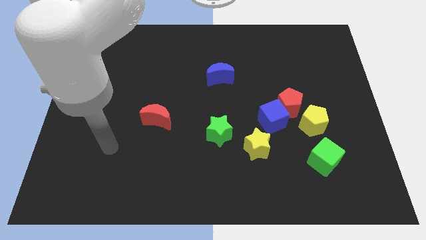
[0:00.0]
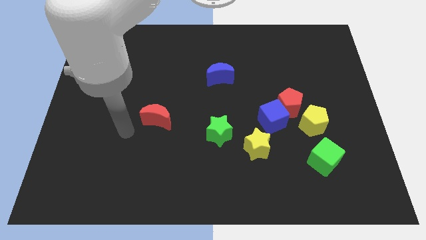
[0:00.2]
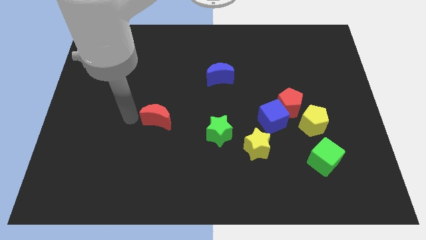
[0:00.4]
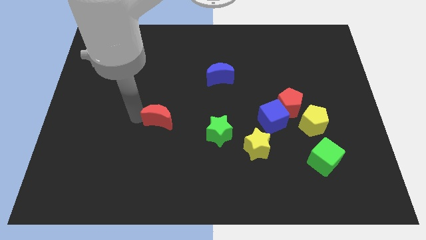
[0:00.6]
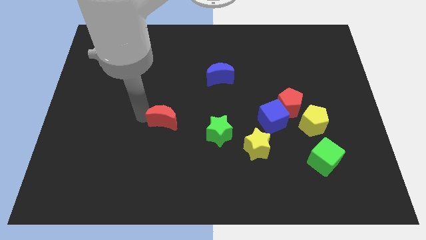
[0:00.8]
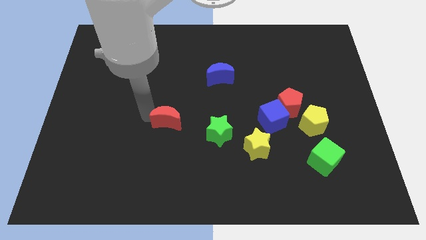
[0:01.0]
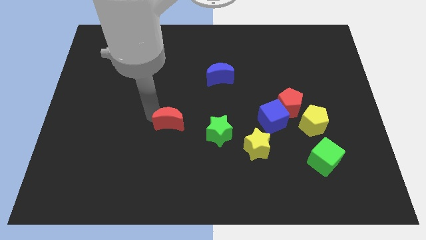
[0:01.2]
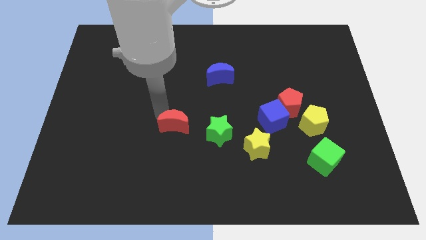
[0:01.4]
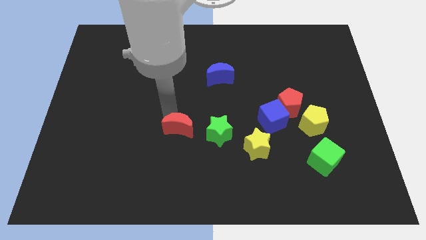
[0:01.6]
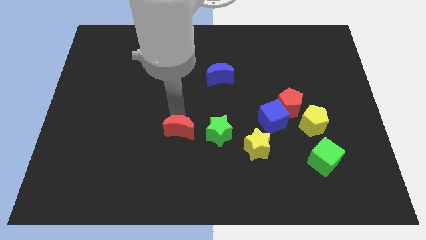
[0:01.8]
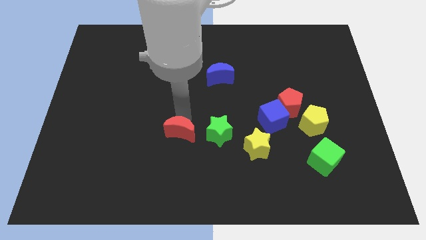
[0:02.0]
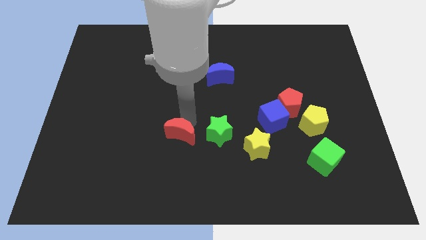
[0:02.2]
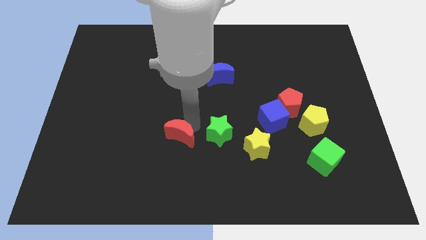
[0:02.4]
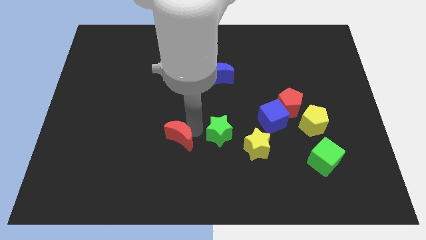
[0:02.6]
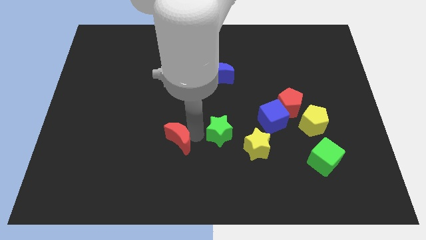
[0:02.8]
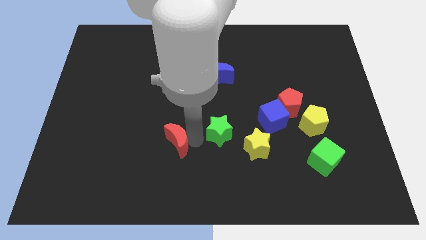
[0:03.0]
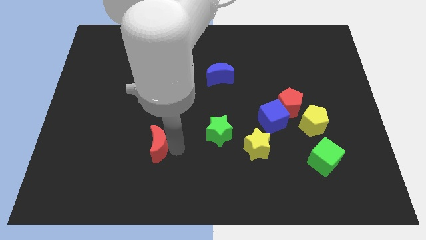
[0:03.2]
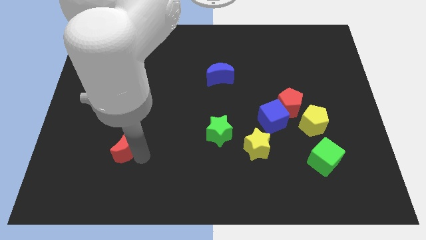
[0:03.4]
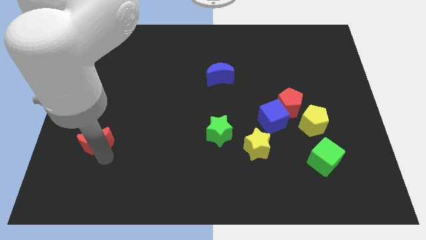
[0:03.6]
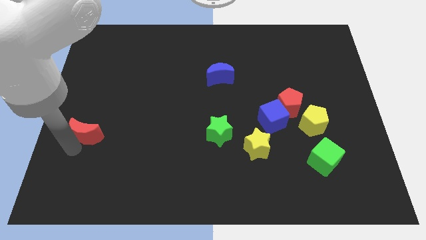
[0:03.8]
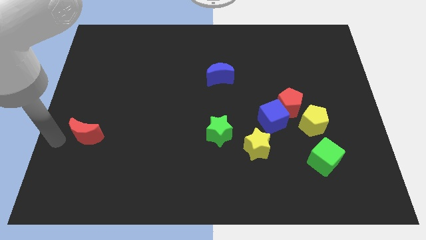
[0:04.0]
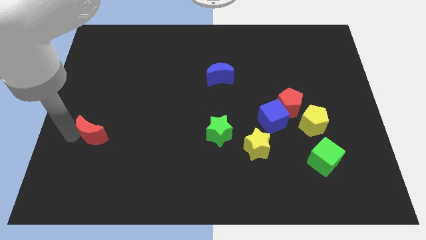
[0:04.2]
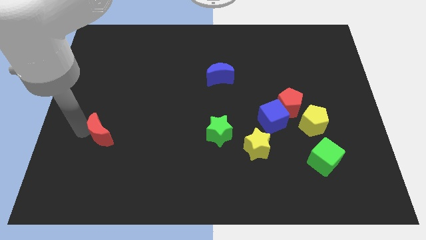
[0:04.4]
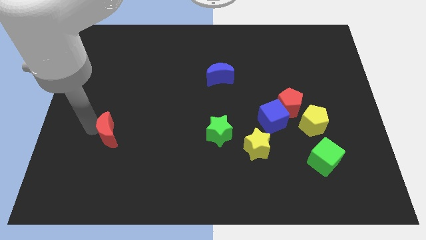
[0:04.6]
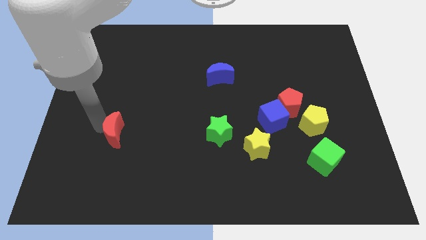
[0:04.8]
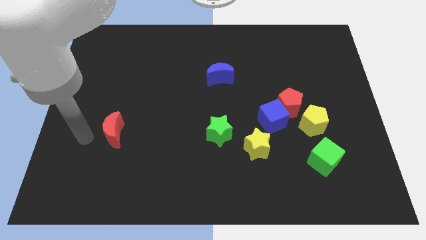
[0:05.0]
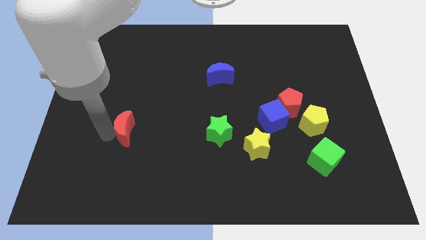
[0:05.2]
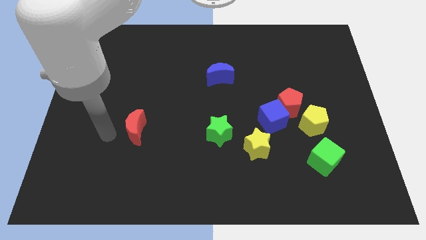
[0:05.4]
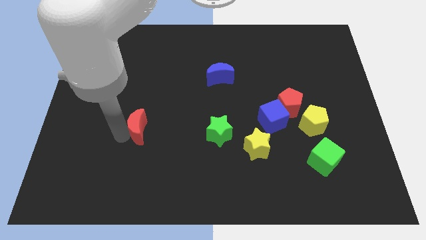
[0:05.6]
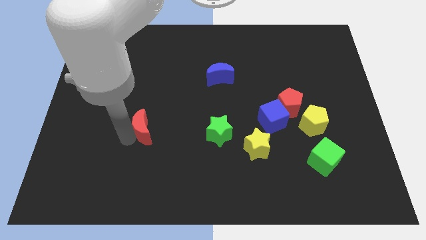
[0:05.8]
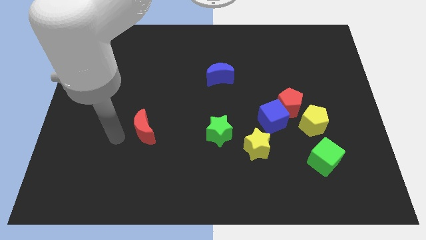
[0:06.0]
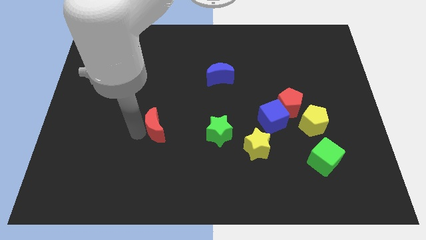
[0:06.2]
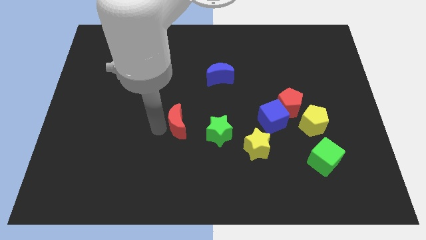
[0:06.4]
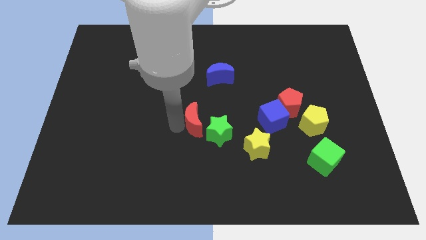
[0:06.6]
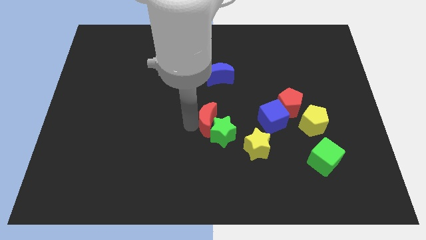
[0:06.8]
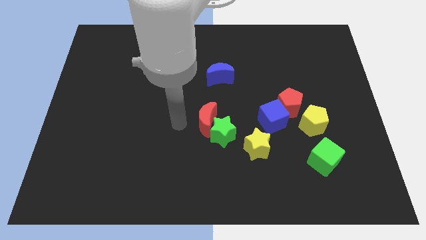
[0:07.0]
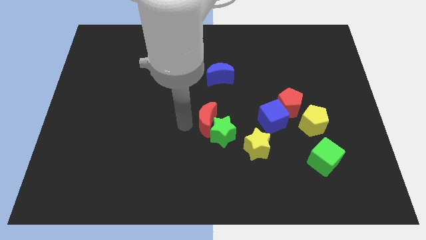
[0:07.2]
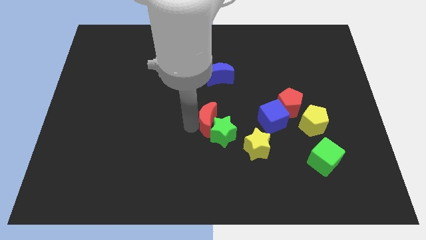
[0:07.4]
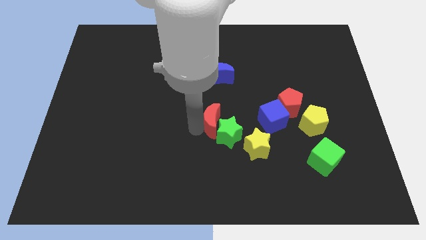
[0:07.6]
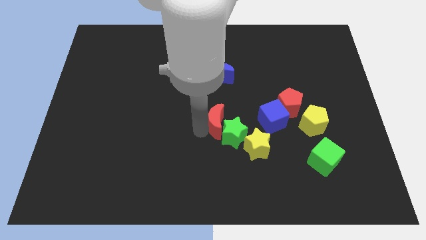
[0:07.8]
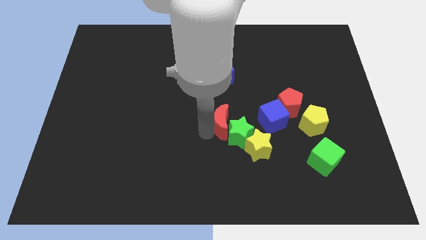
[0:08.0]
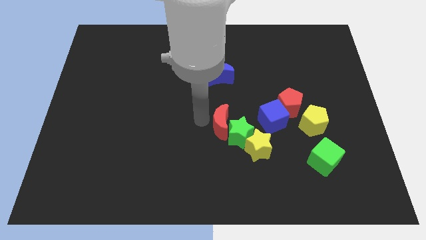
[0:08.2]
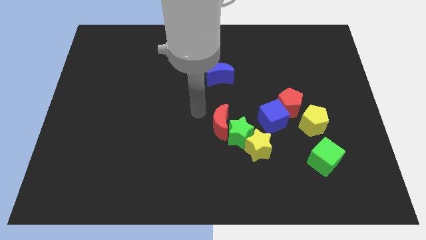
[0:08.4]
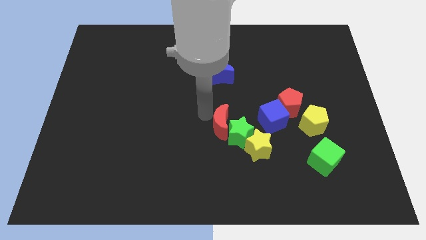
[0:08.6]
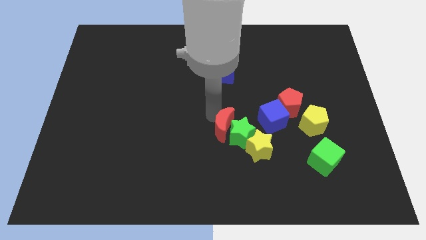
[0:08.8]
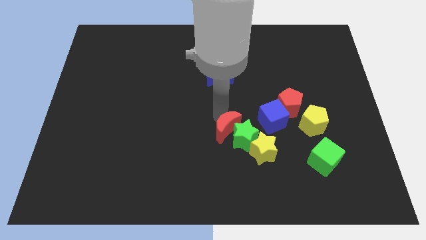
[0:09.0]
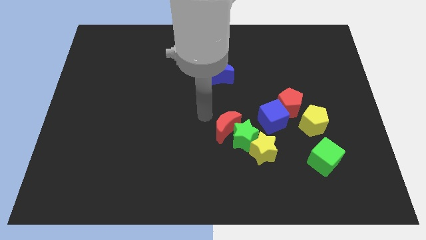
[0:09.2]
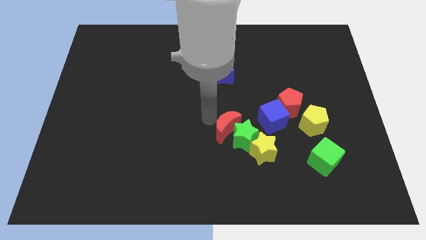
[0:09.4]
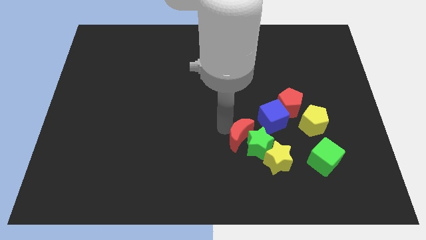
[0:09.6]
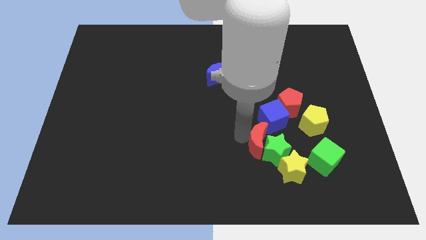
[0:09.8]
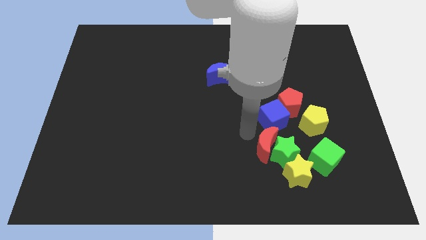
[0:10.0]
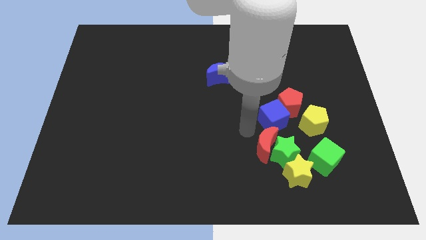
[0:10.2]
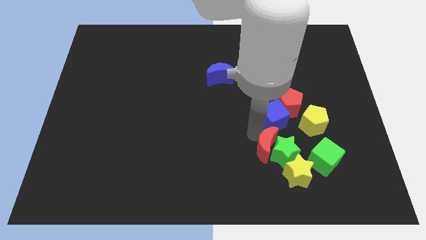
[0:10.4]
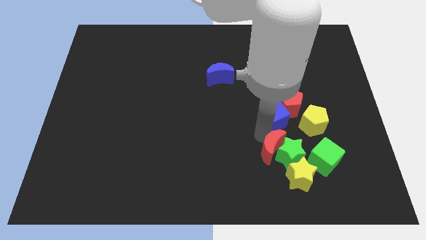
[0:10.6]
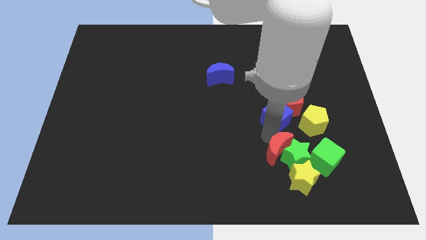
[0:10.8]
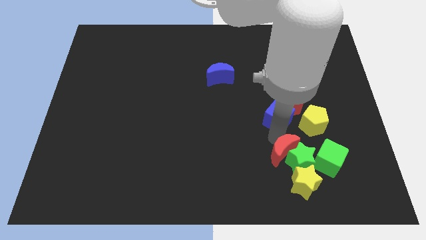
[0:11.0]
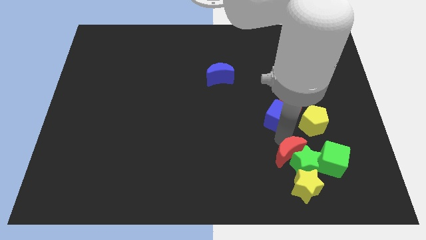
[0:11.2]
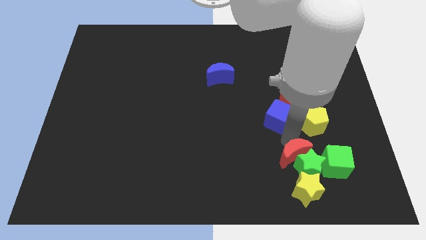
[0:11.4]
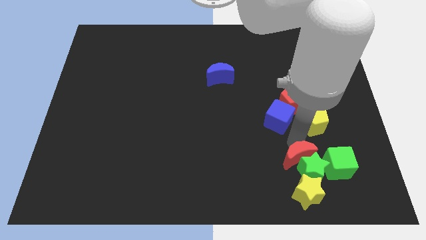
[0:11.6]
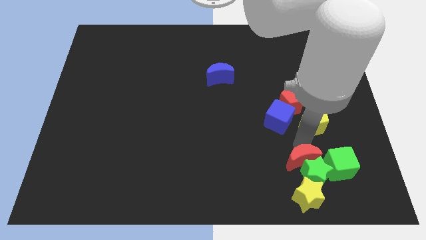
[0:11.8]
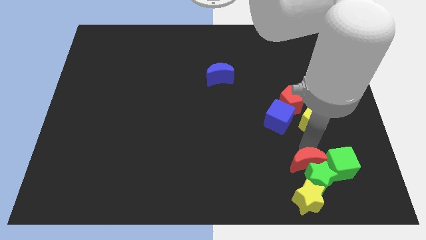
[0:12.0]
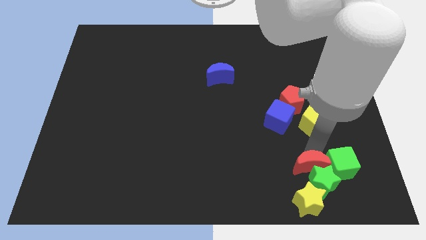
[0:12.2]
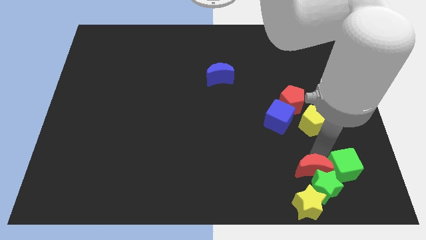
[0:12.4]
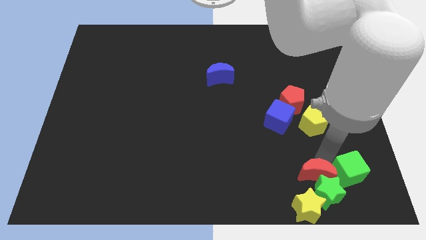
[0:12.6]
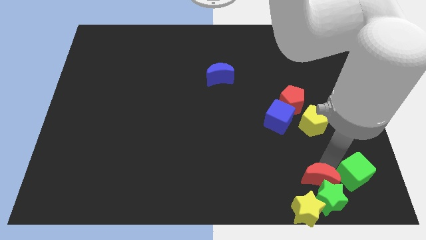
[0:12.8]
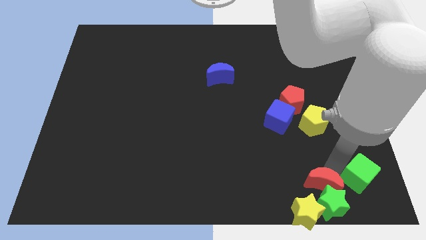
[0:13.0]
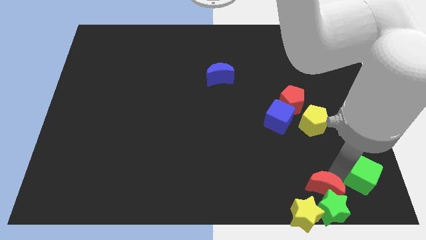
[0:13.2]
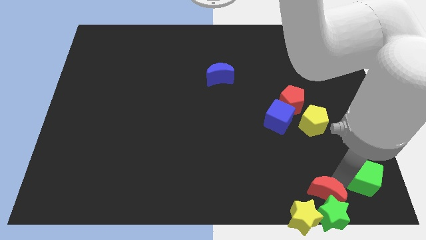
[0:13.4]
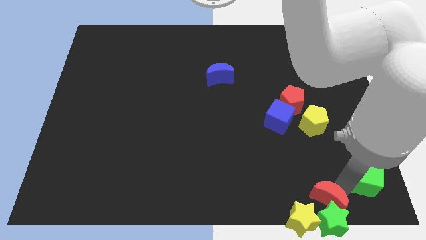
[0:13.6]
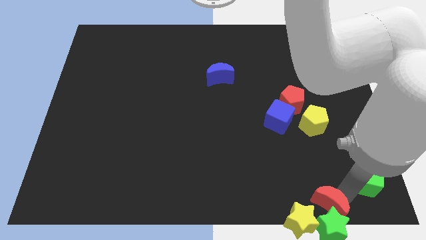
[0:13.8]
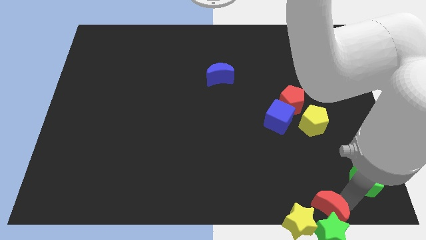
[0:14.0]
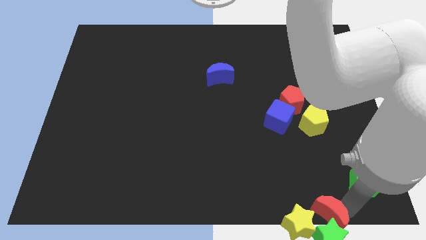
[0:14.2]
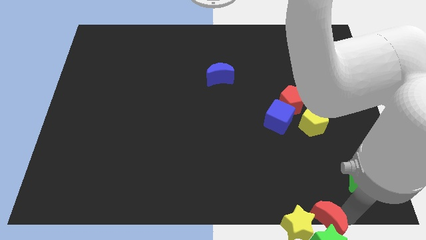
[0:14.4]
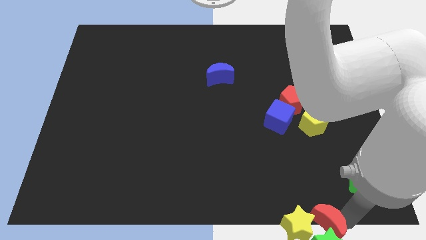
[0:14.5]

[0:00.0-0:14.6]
put the red moon close to the yellow star
